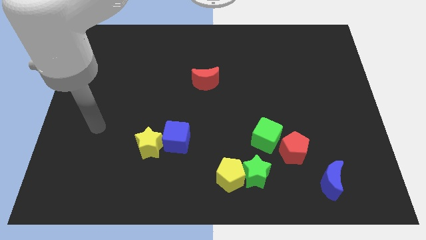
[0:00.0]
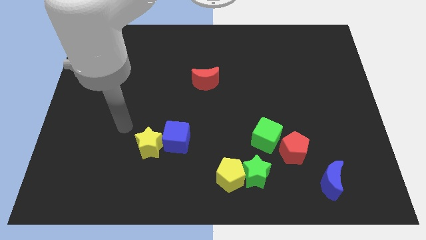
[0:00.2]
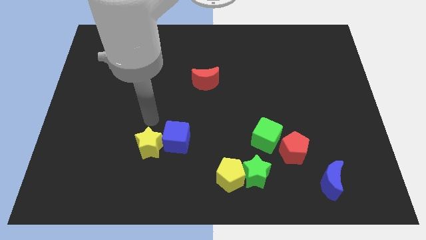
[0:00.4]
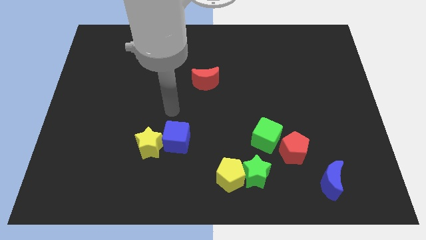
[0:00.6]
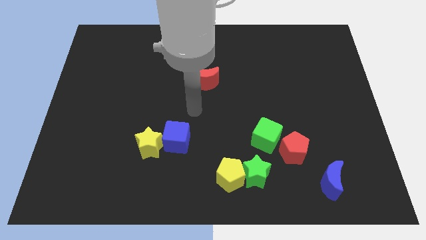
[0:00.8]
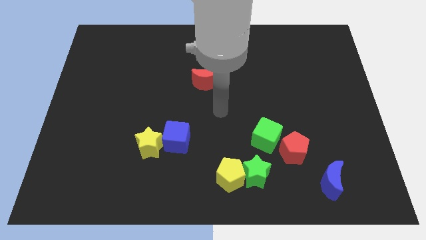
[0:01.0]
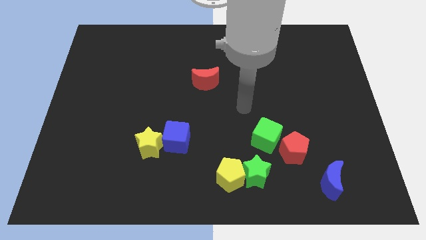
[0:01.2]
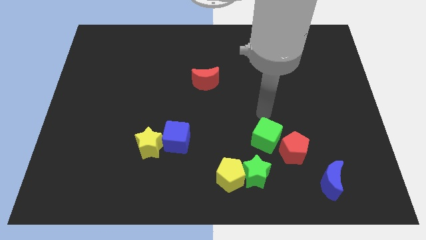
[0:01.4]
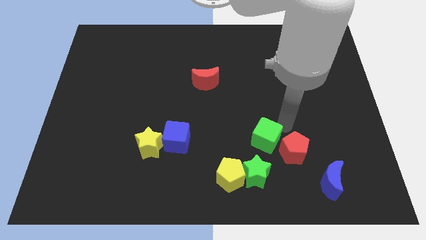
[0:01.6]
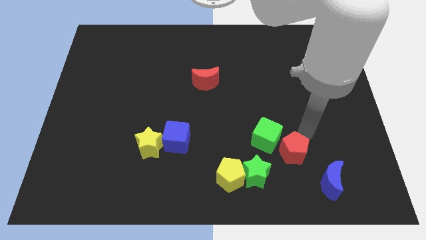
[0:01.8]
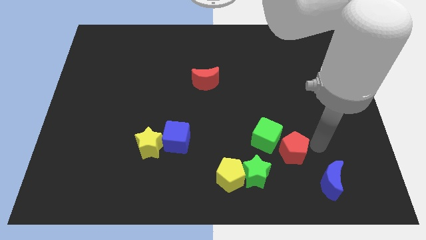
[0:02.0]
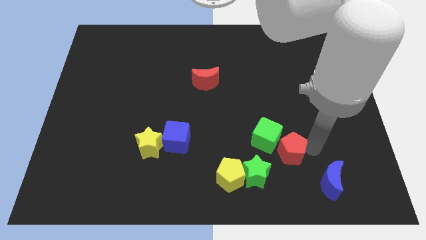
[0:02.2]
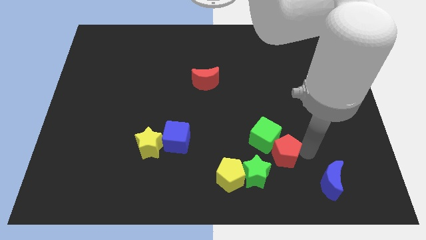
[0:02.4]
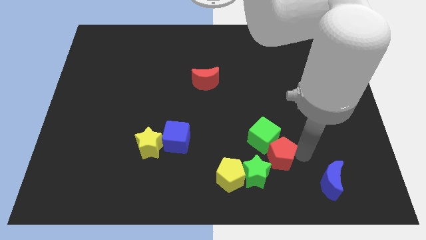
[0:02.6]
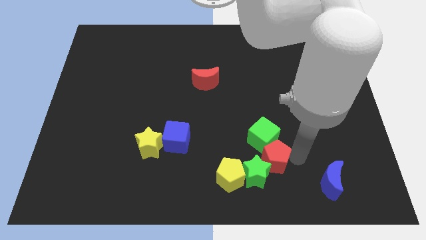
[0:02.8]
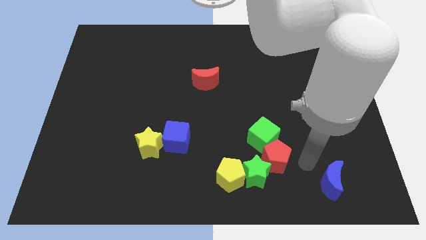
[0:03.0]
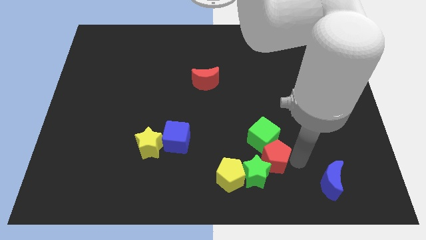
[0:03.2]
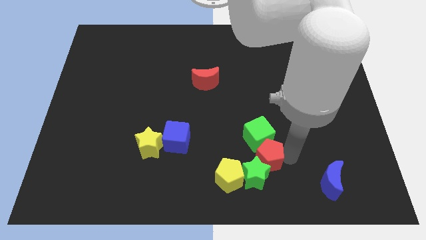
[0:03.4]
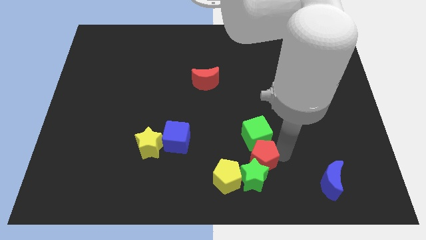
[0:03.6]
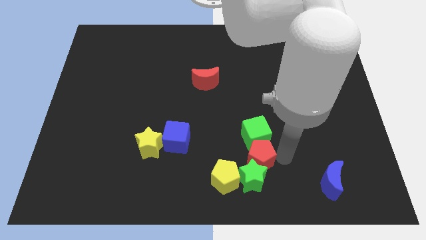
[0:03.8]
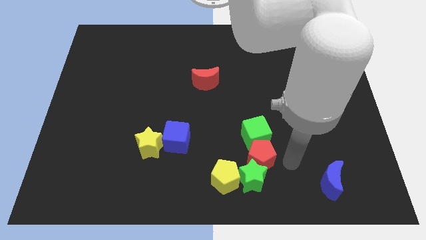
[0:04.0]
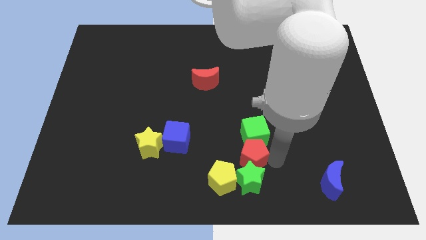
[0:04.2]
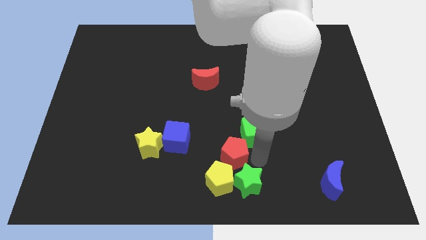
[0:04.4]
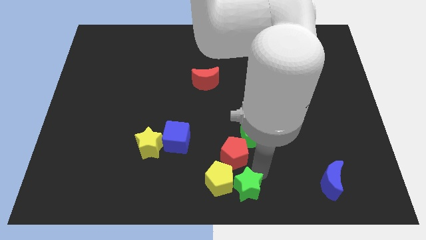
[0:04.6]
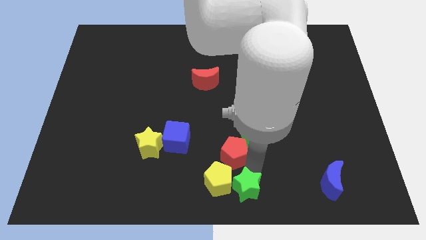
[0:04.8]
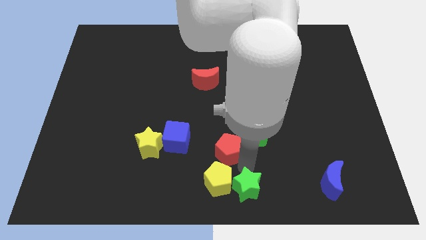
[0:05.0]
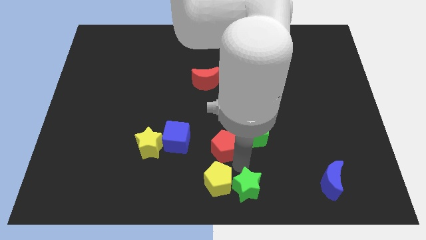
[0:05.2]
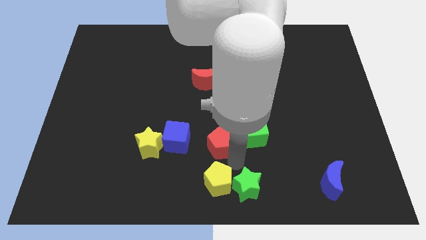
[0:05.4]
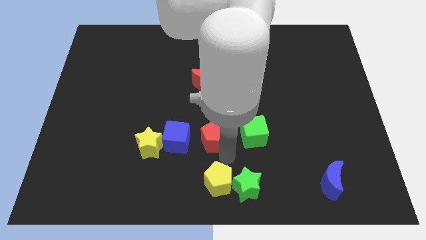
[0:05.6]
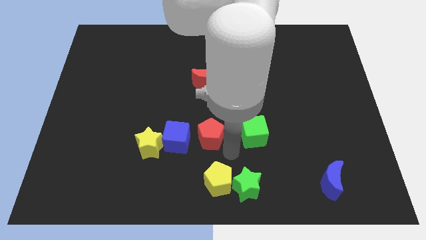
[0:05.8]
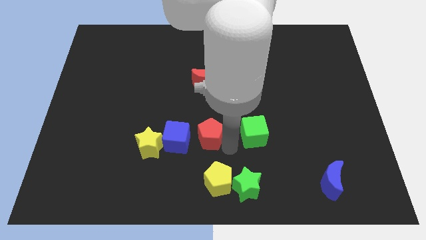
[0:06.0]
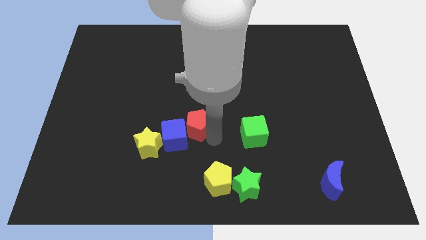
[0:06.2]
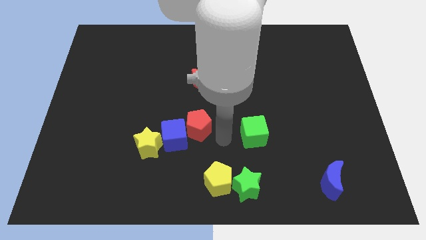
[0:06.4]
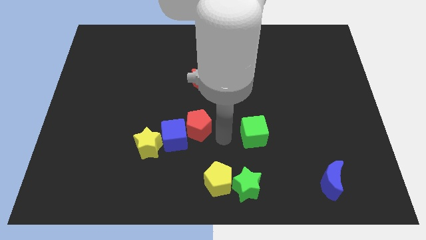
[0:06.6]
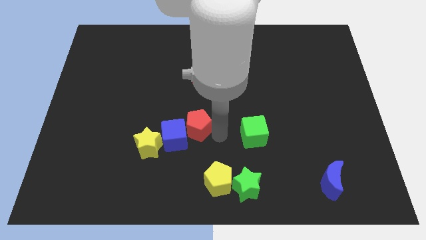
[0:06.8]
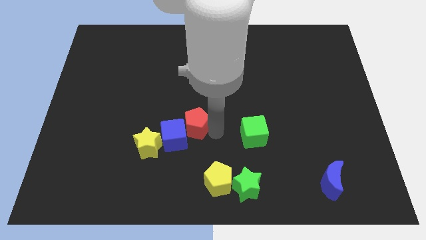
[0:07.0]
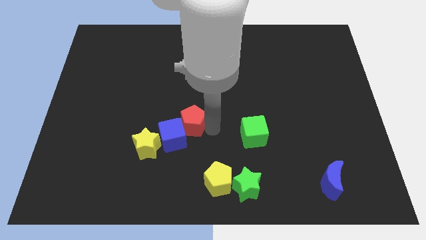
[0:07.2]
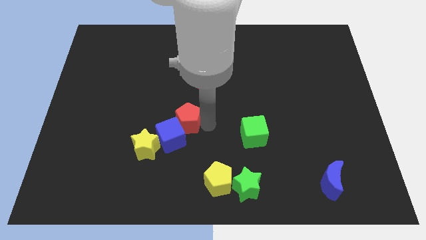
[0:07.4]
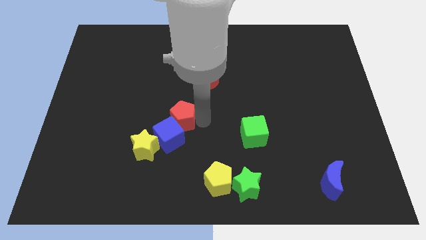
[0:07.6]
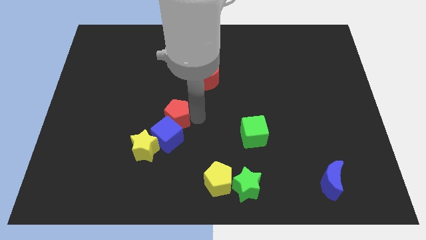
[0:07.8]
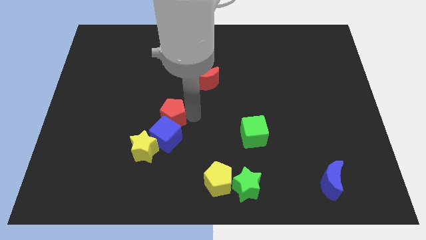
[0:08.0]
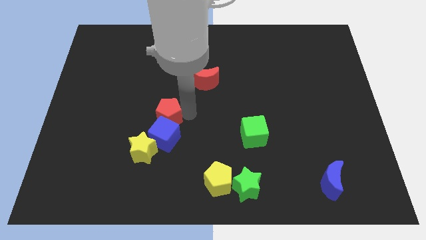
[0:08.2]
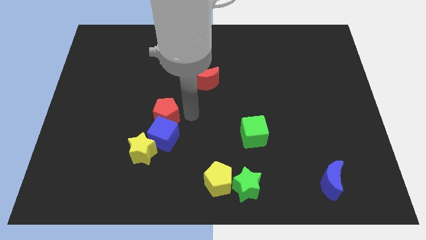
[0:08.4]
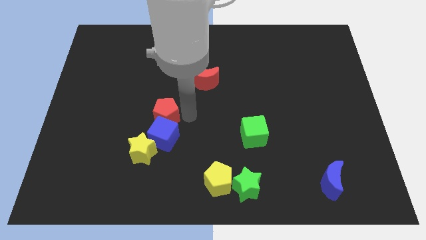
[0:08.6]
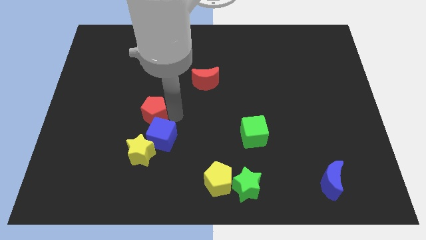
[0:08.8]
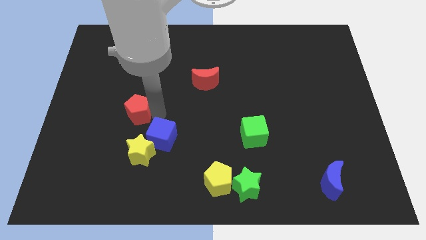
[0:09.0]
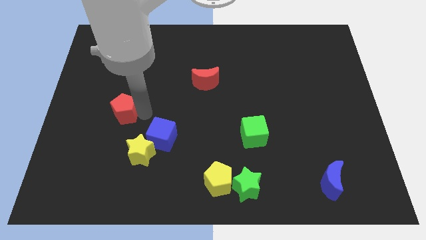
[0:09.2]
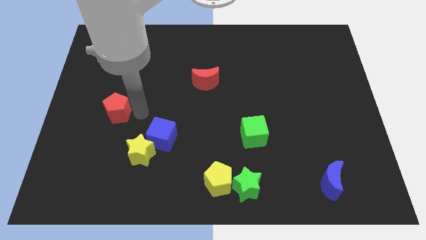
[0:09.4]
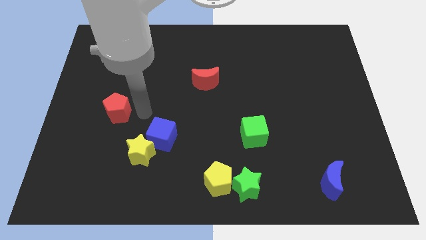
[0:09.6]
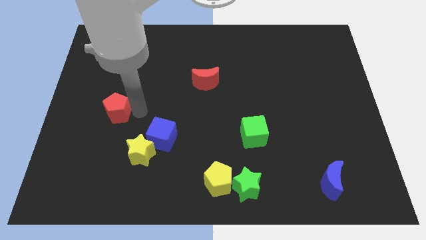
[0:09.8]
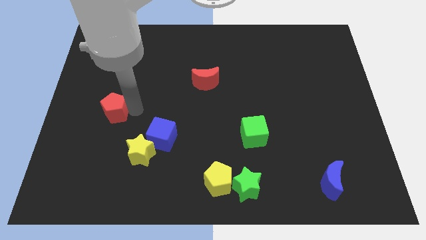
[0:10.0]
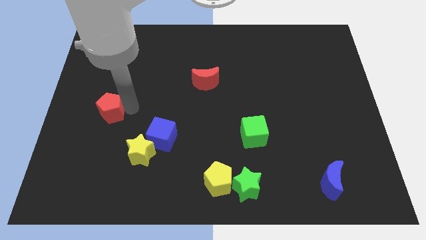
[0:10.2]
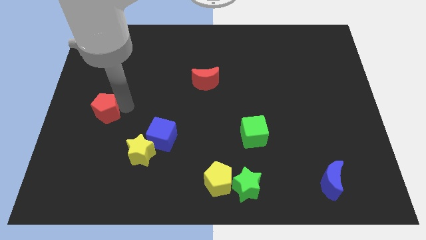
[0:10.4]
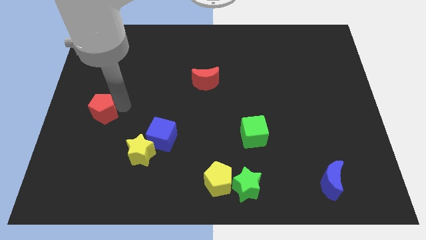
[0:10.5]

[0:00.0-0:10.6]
slide the red pentagon to the left side of the board

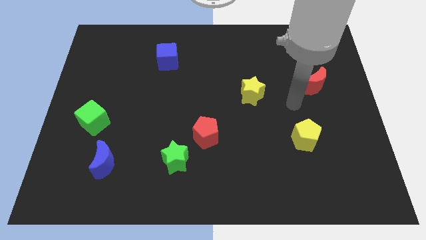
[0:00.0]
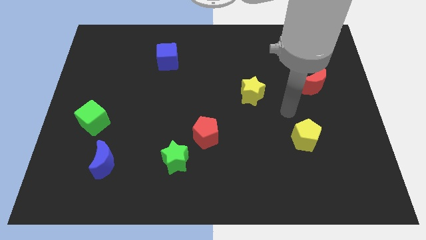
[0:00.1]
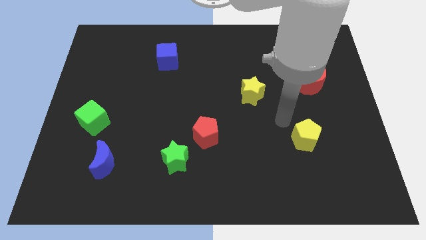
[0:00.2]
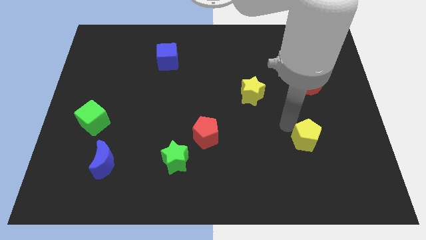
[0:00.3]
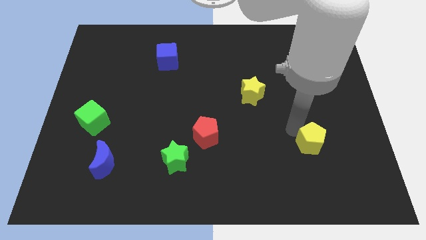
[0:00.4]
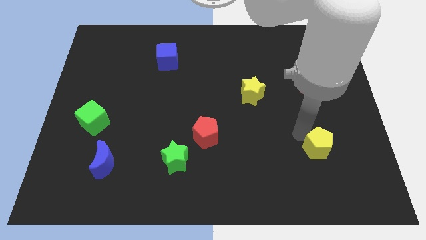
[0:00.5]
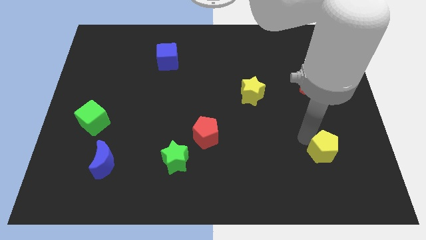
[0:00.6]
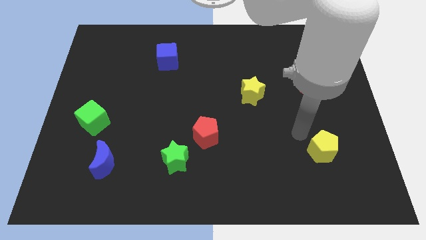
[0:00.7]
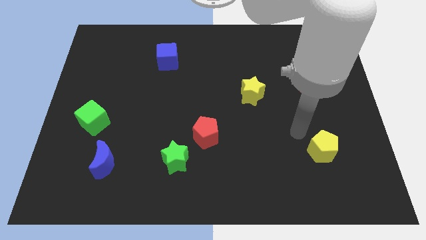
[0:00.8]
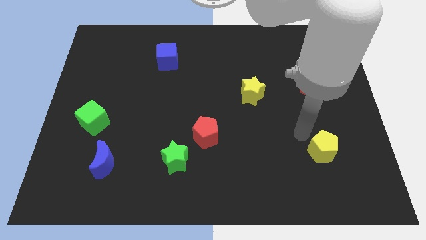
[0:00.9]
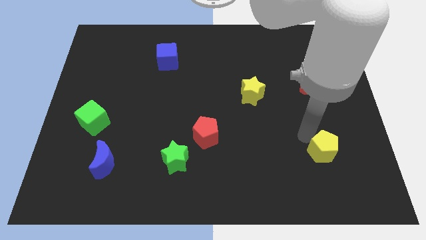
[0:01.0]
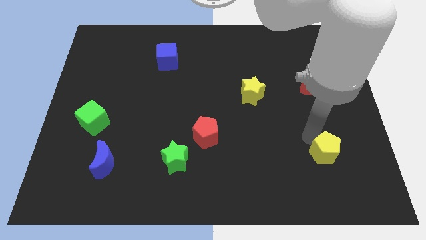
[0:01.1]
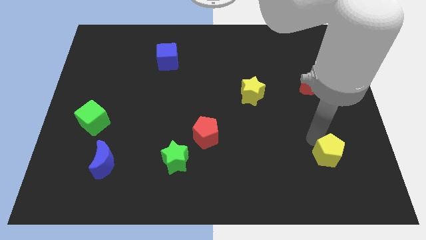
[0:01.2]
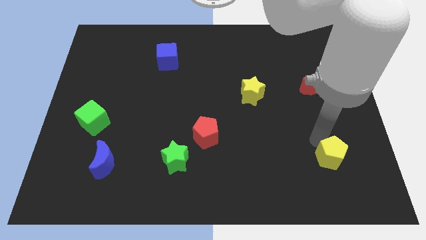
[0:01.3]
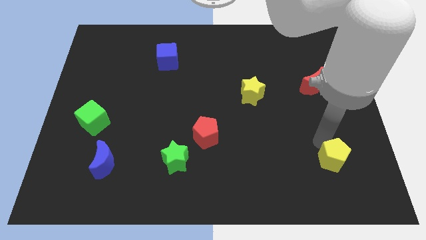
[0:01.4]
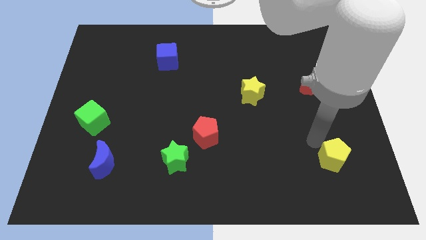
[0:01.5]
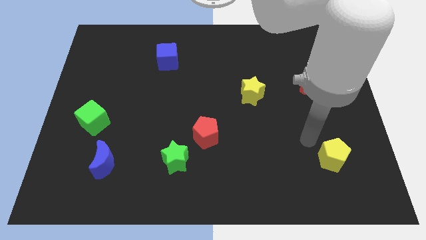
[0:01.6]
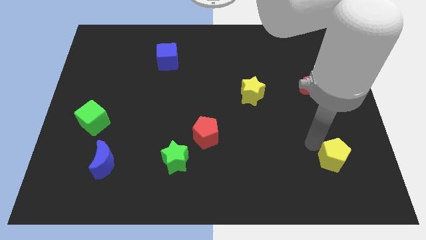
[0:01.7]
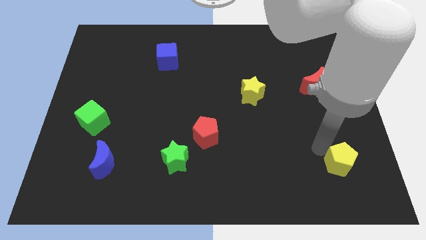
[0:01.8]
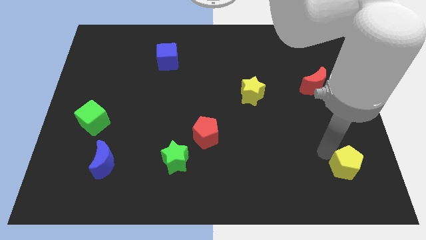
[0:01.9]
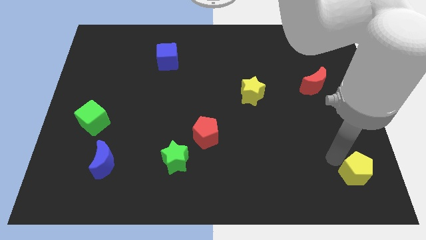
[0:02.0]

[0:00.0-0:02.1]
put the yellow pentagon to the bottom right corner
